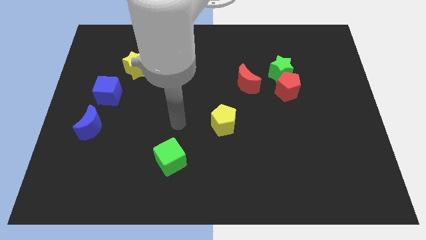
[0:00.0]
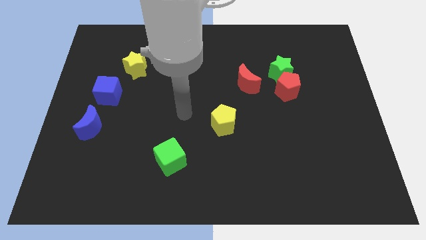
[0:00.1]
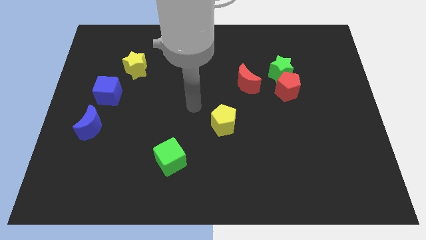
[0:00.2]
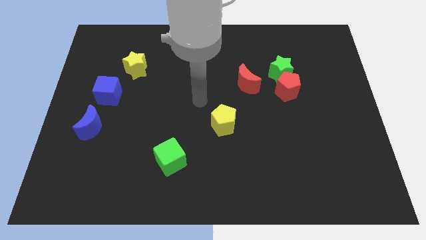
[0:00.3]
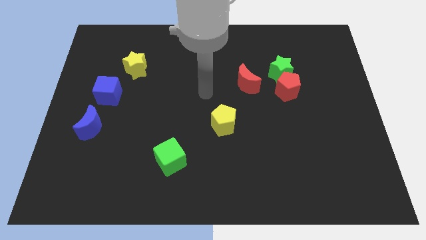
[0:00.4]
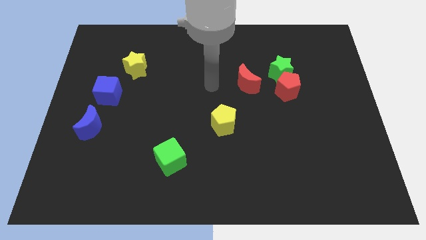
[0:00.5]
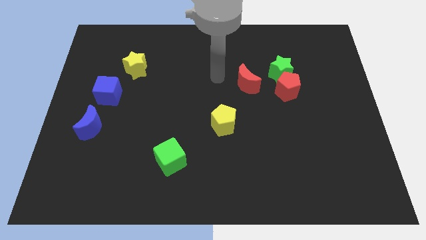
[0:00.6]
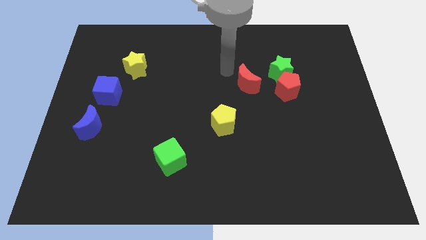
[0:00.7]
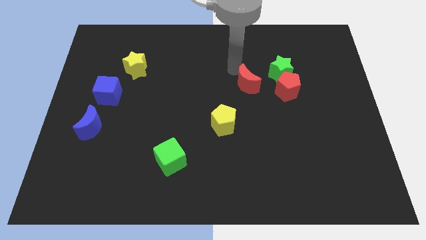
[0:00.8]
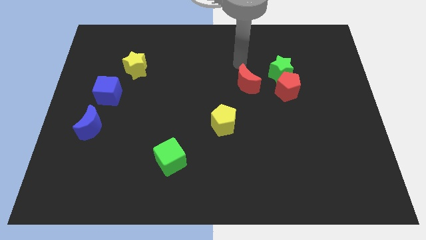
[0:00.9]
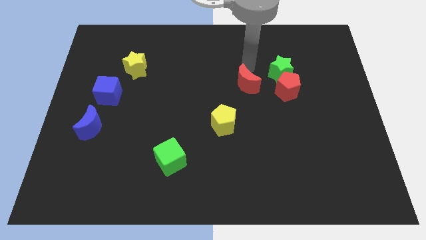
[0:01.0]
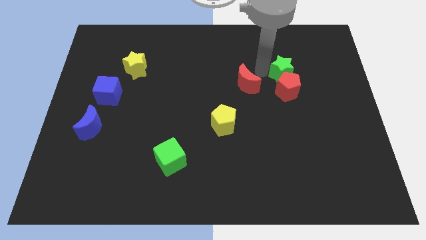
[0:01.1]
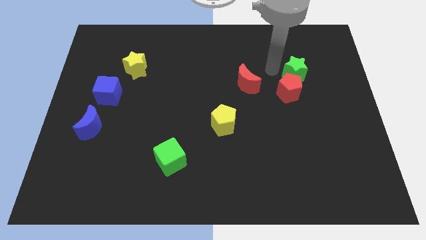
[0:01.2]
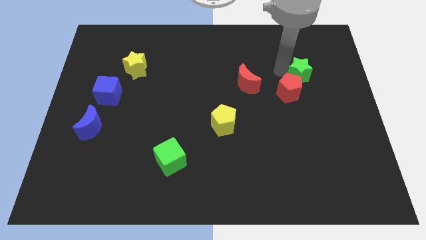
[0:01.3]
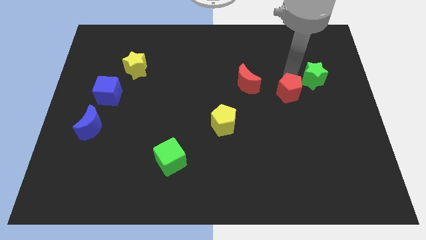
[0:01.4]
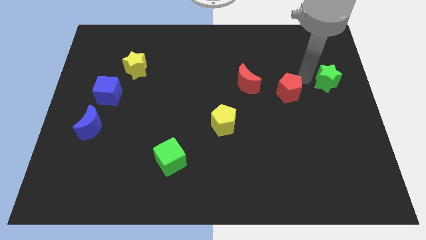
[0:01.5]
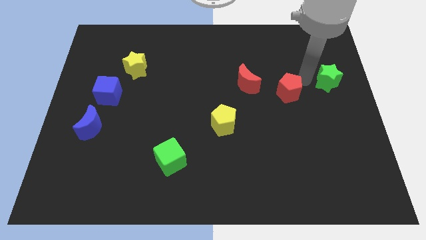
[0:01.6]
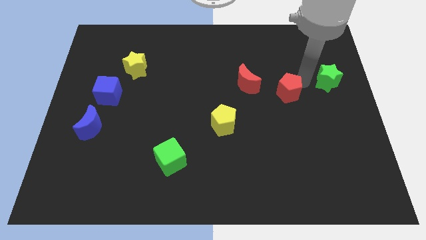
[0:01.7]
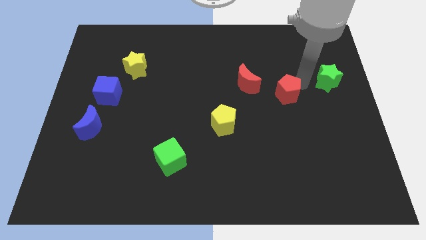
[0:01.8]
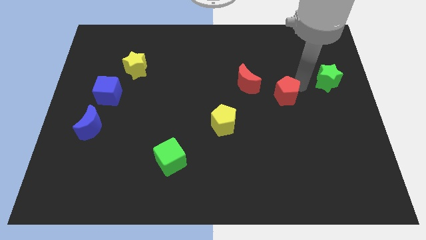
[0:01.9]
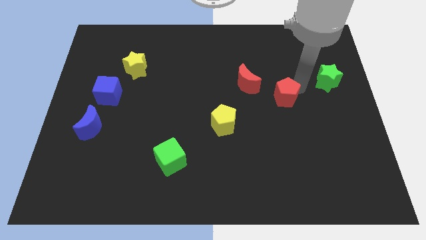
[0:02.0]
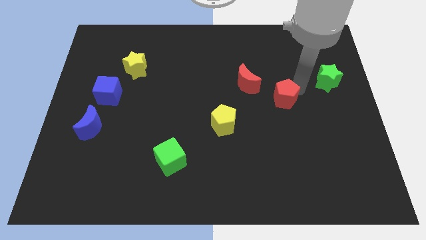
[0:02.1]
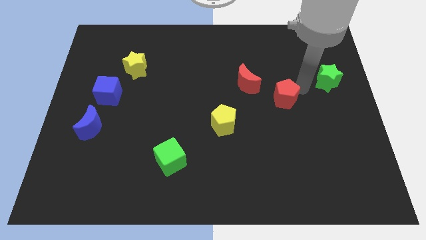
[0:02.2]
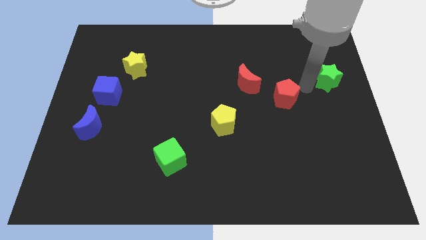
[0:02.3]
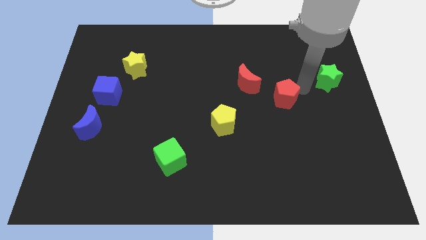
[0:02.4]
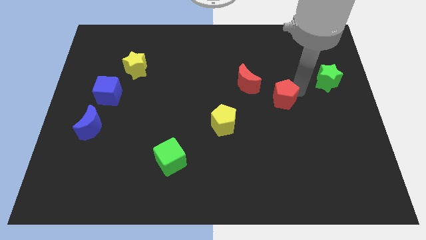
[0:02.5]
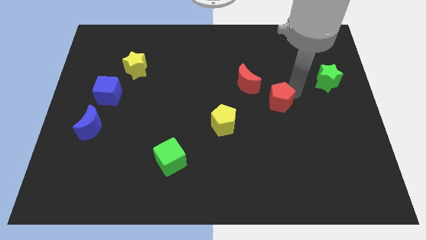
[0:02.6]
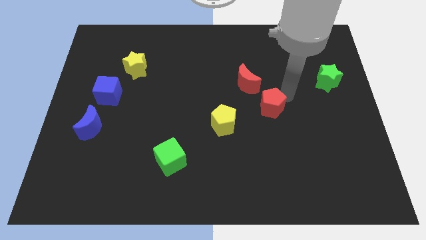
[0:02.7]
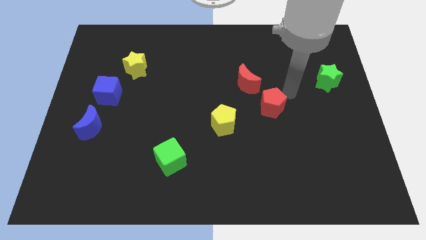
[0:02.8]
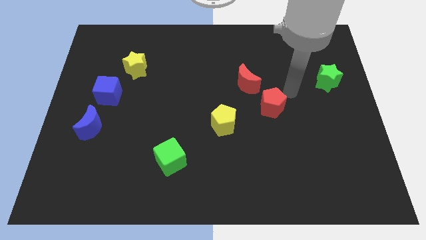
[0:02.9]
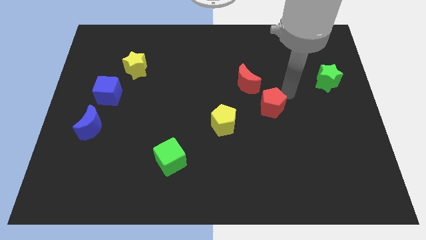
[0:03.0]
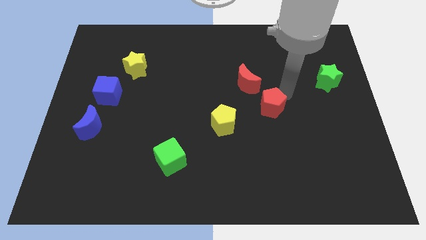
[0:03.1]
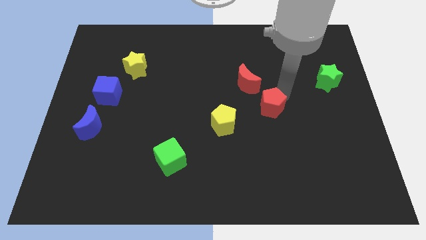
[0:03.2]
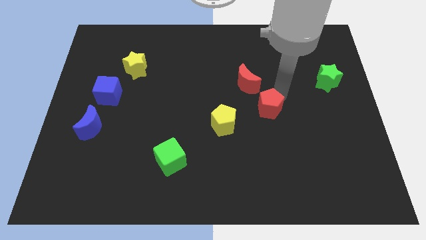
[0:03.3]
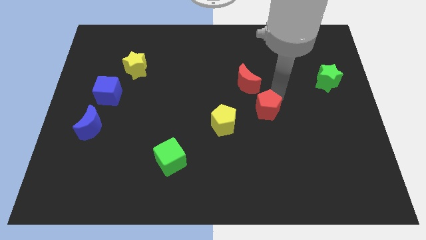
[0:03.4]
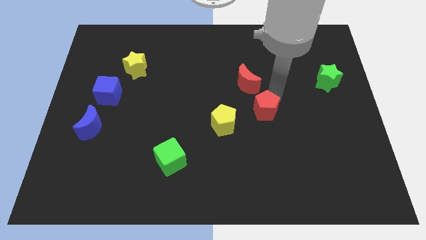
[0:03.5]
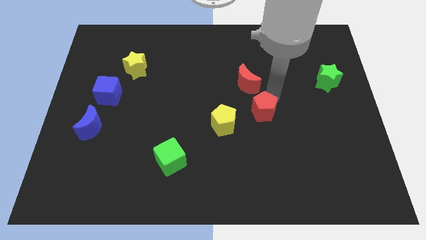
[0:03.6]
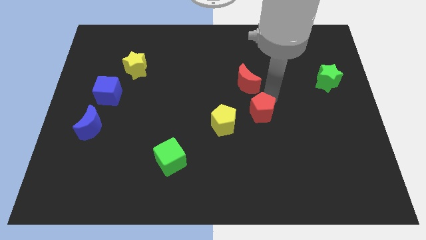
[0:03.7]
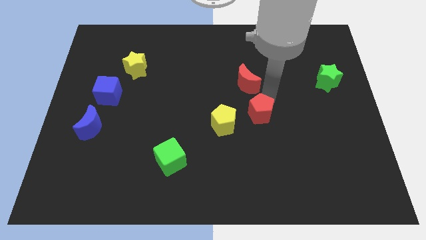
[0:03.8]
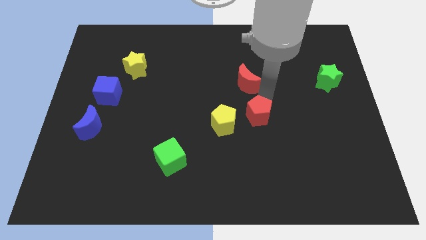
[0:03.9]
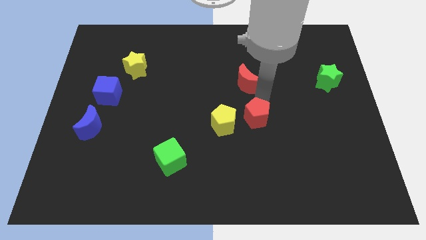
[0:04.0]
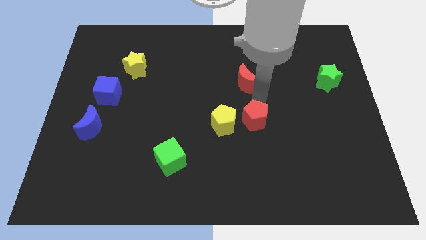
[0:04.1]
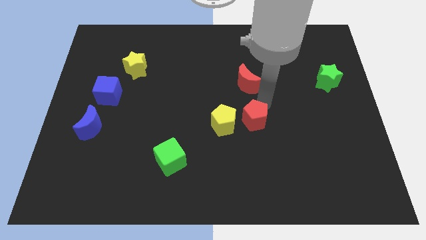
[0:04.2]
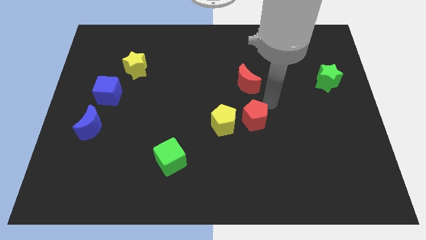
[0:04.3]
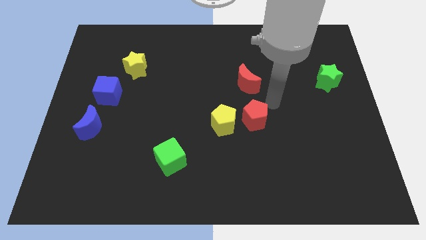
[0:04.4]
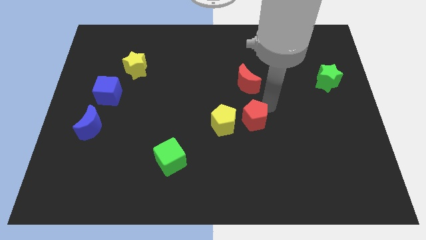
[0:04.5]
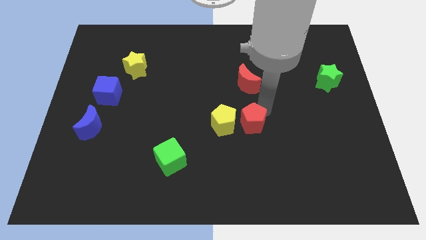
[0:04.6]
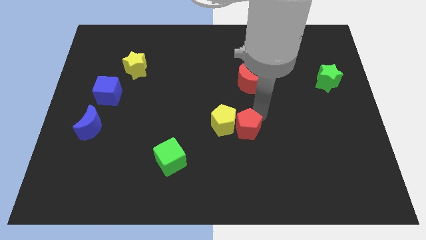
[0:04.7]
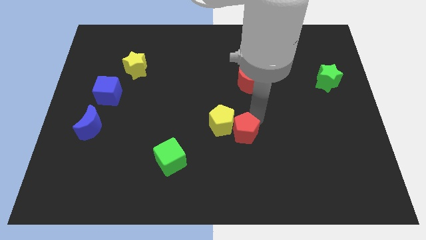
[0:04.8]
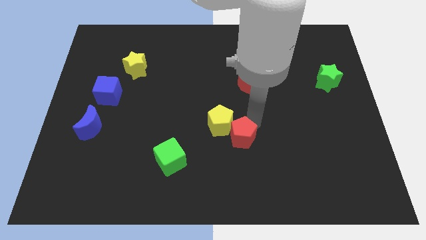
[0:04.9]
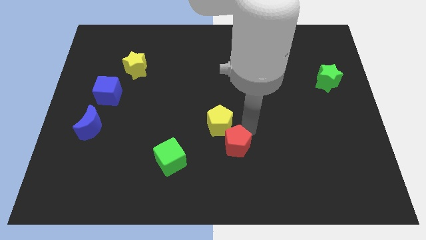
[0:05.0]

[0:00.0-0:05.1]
push the red pentagon down and left diagonally

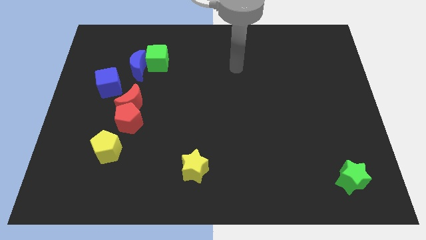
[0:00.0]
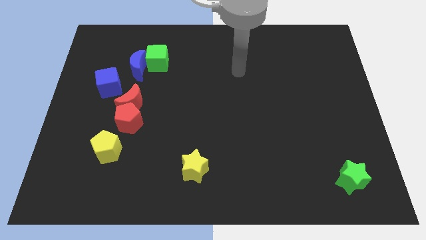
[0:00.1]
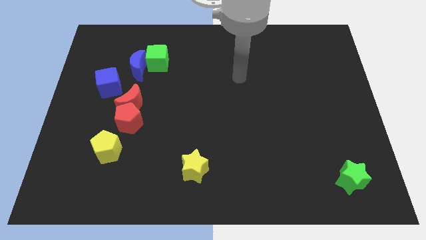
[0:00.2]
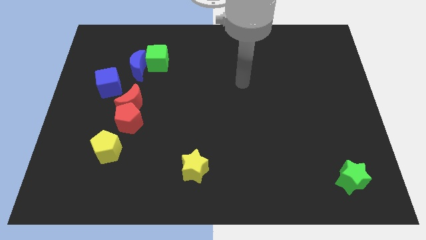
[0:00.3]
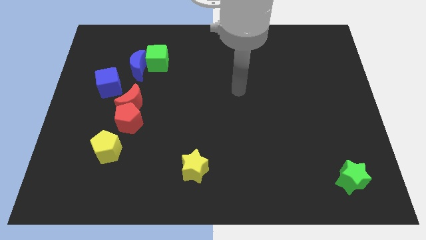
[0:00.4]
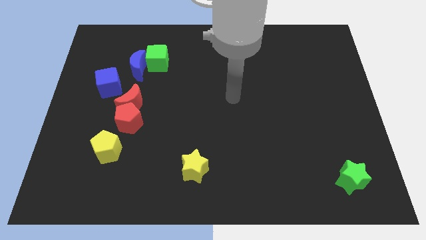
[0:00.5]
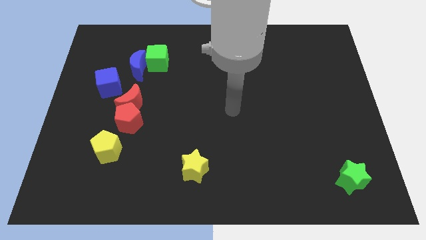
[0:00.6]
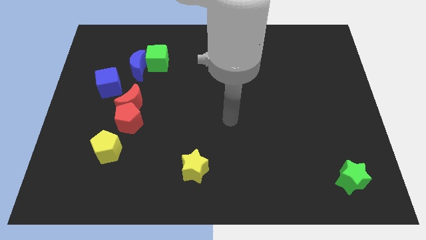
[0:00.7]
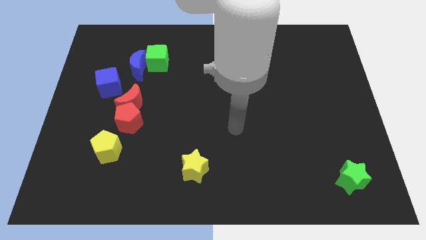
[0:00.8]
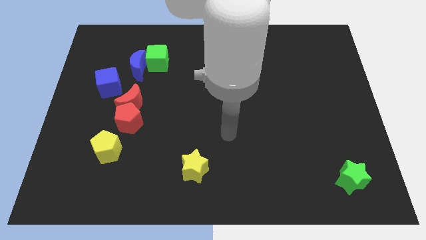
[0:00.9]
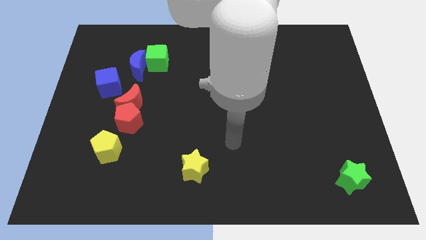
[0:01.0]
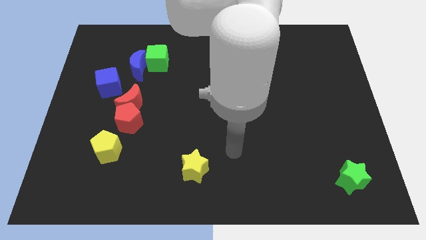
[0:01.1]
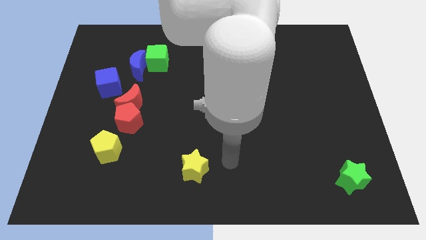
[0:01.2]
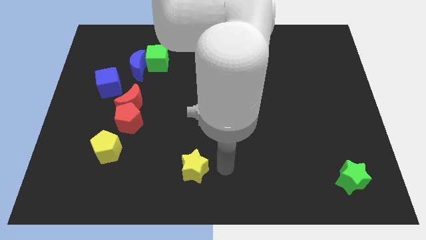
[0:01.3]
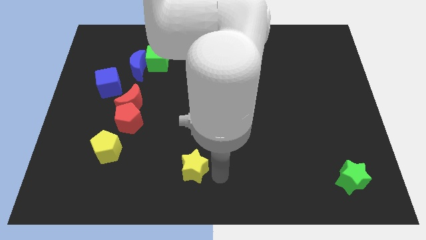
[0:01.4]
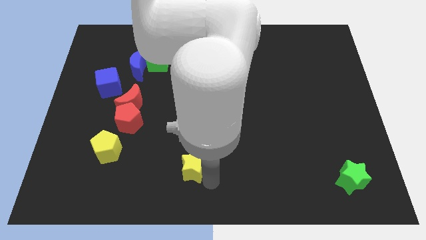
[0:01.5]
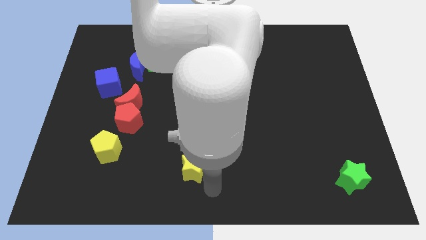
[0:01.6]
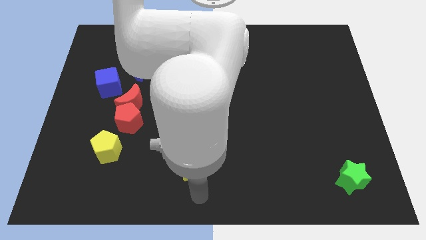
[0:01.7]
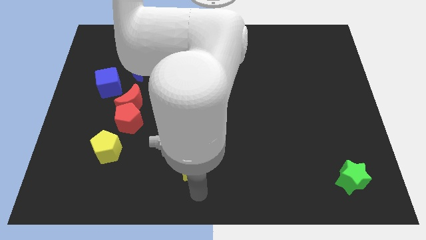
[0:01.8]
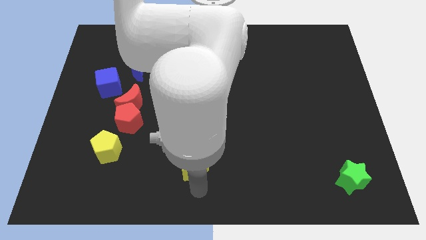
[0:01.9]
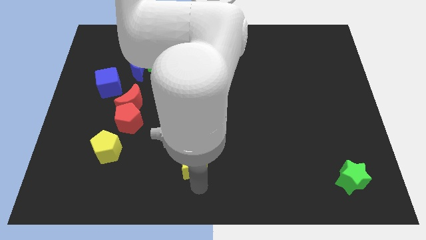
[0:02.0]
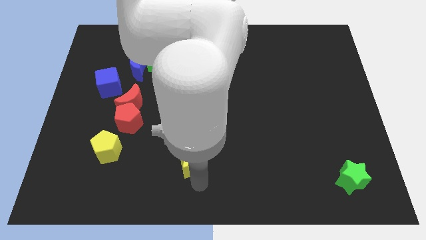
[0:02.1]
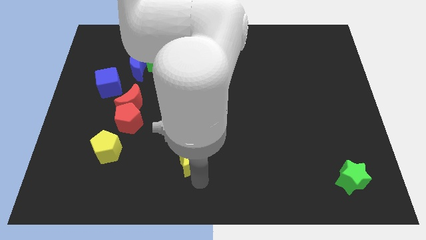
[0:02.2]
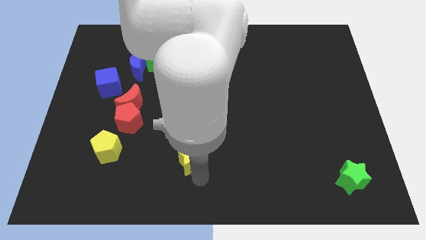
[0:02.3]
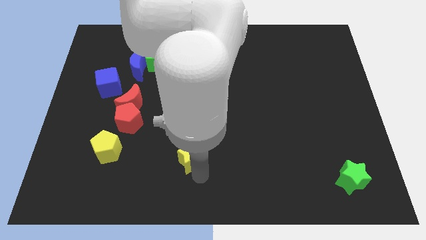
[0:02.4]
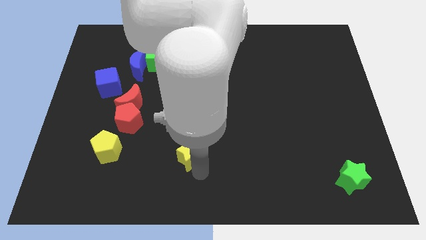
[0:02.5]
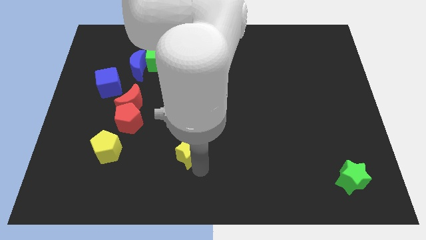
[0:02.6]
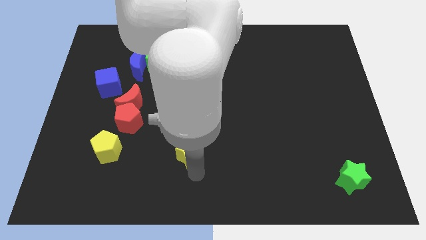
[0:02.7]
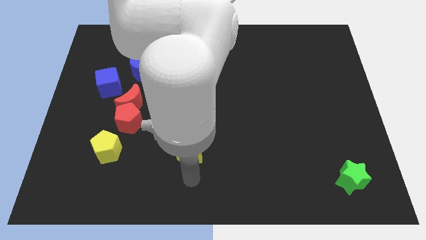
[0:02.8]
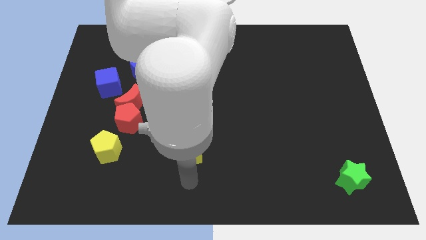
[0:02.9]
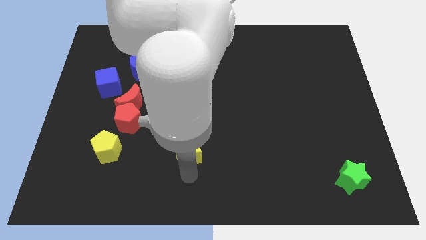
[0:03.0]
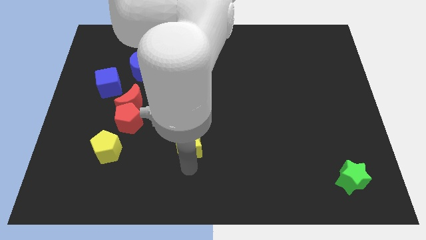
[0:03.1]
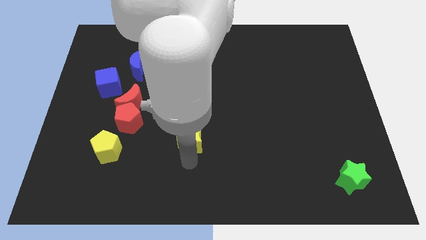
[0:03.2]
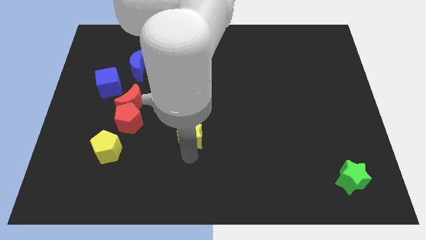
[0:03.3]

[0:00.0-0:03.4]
slightly move the yellow star up
